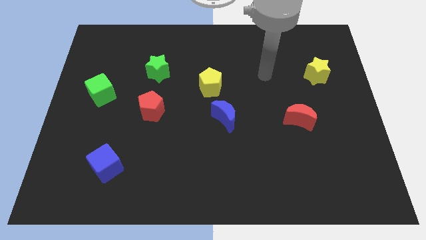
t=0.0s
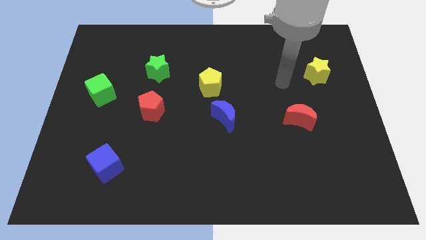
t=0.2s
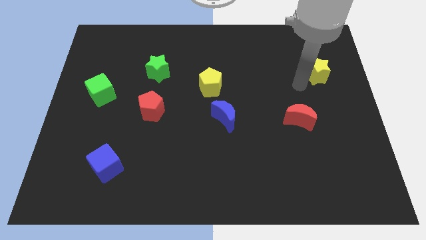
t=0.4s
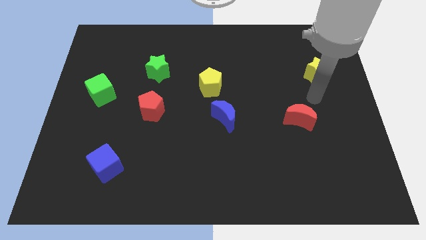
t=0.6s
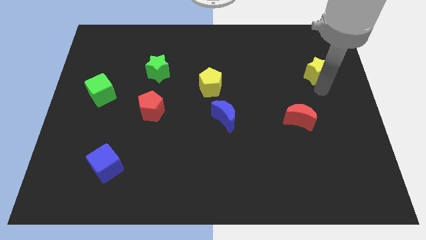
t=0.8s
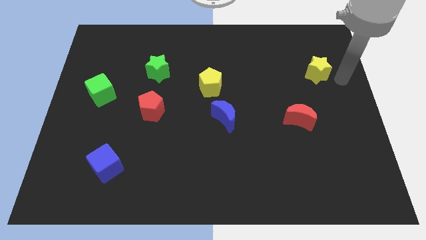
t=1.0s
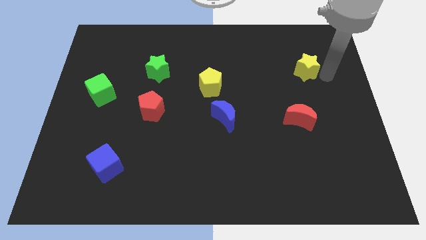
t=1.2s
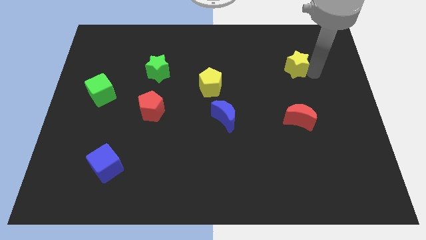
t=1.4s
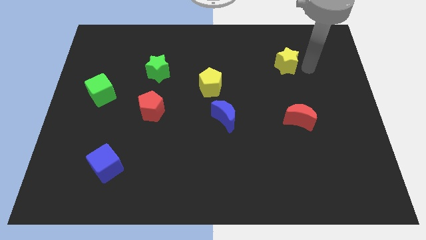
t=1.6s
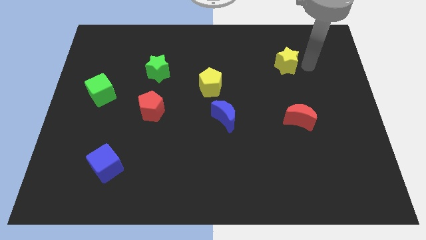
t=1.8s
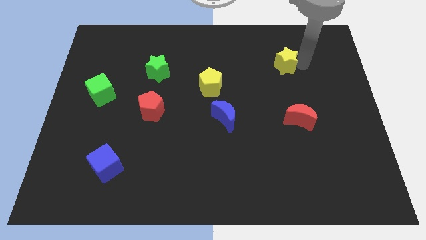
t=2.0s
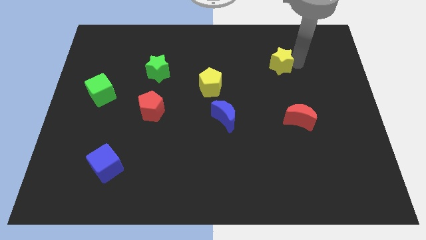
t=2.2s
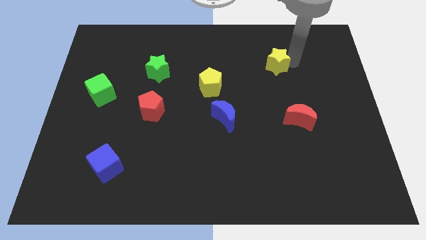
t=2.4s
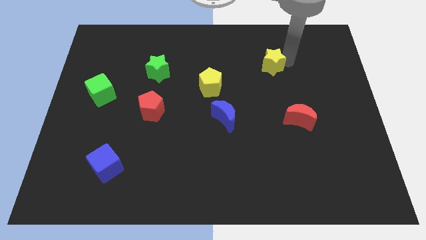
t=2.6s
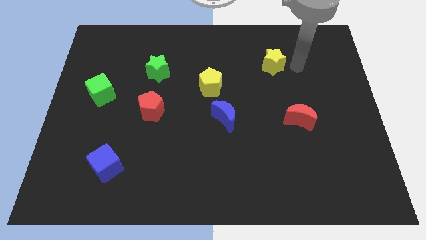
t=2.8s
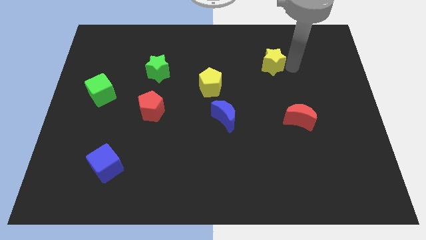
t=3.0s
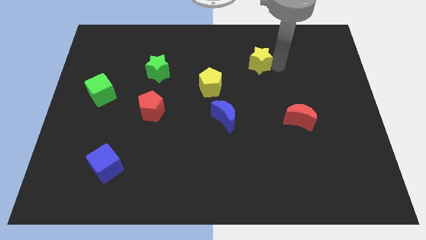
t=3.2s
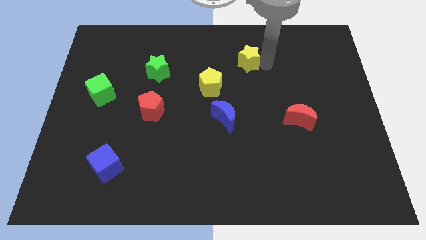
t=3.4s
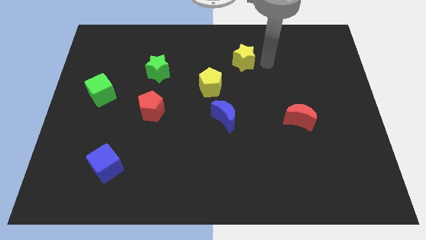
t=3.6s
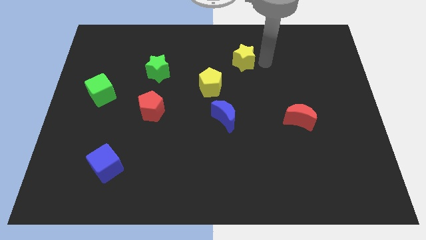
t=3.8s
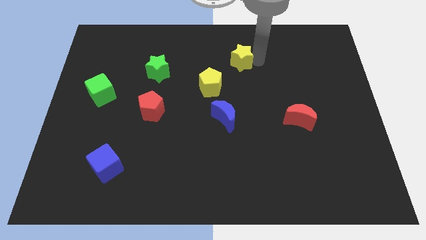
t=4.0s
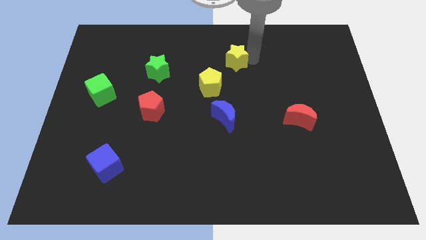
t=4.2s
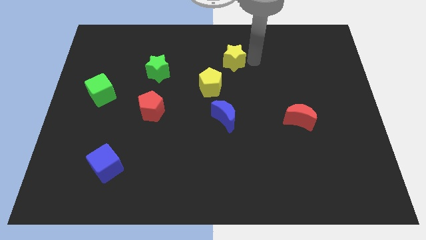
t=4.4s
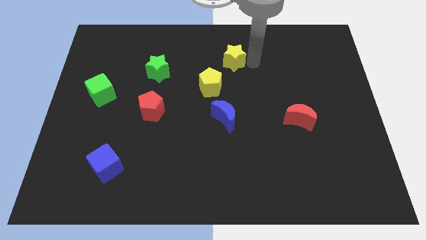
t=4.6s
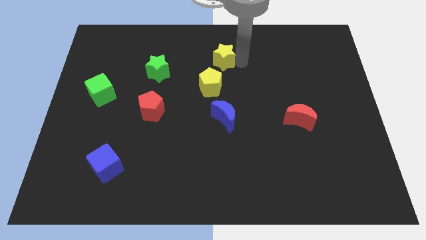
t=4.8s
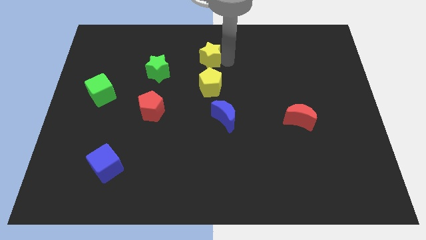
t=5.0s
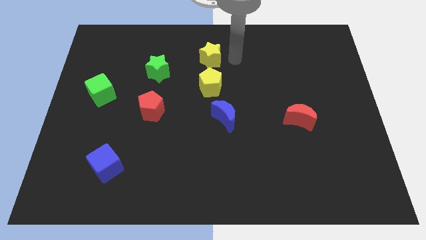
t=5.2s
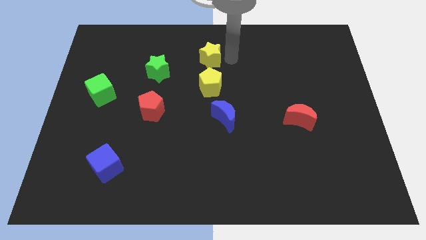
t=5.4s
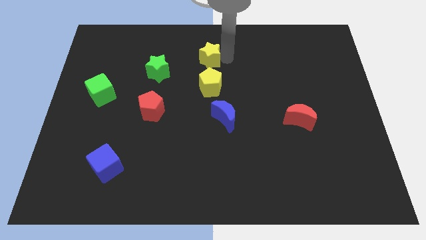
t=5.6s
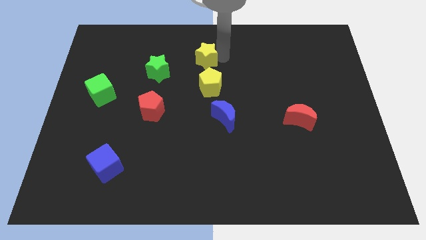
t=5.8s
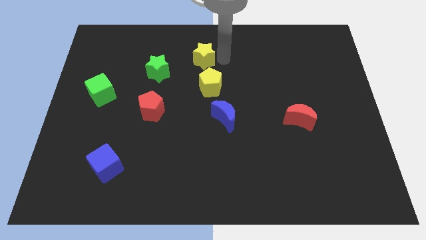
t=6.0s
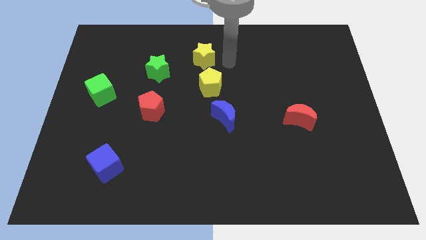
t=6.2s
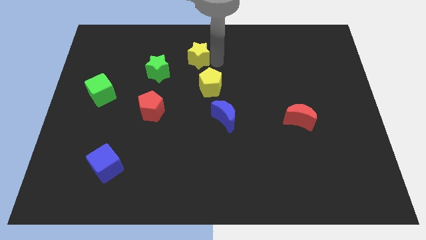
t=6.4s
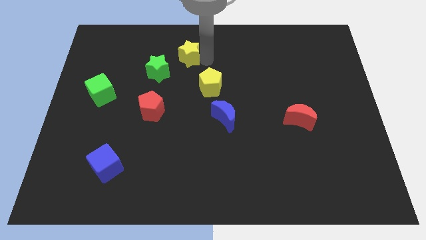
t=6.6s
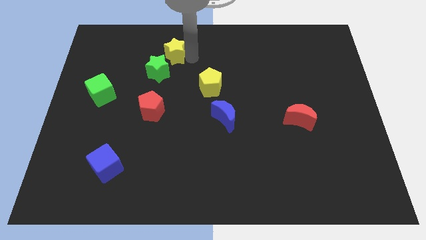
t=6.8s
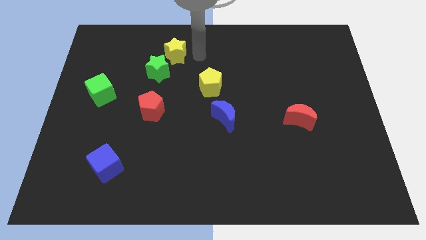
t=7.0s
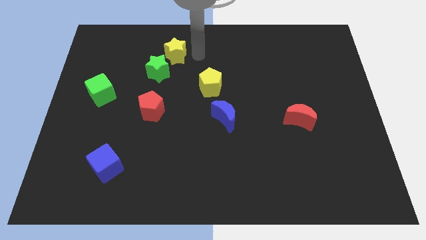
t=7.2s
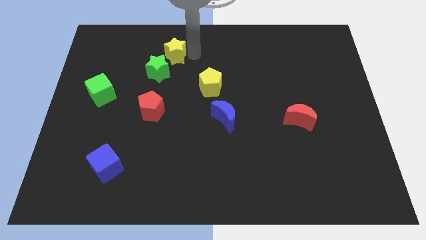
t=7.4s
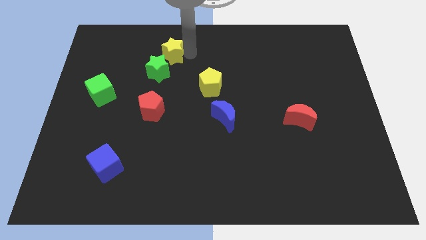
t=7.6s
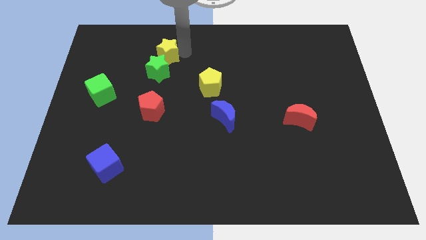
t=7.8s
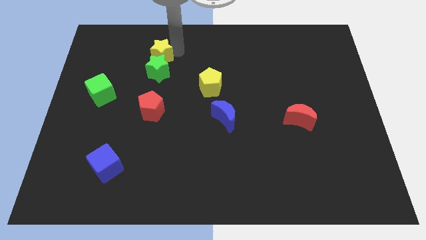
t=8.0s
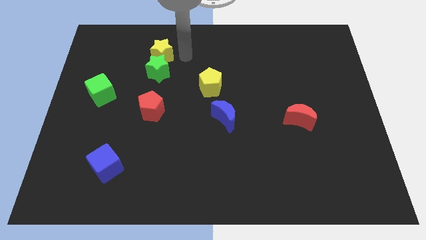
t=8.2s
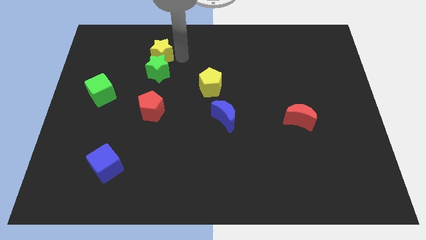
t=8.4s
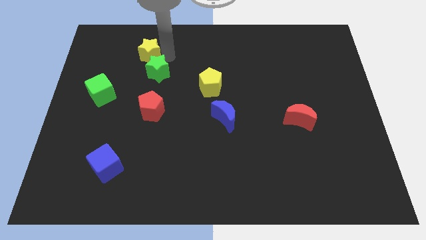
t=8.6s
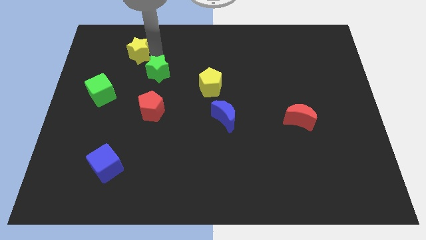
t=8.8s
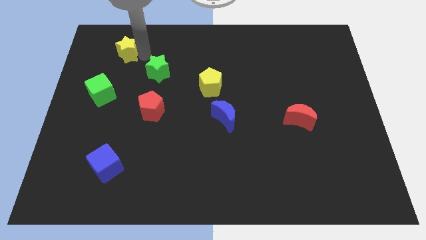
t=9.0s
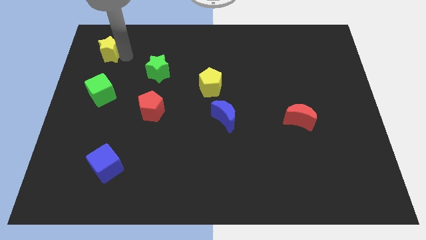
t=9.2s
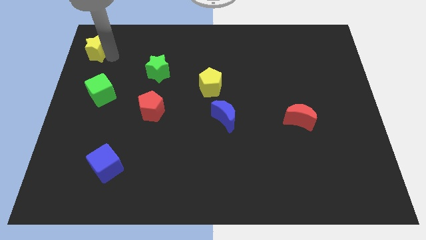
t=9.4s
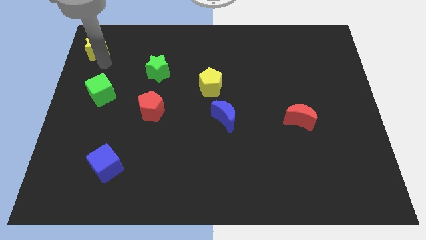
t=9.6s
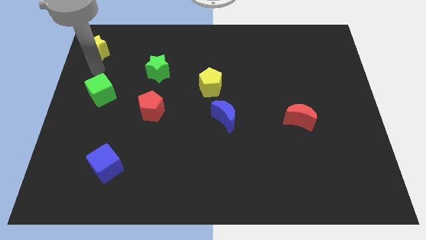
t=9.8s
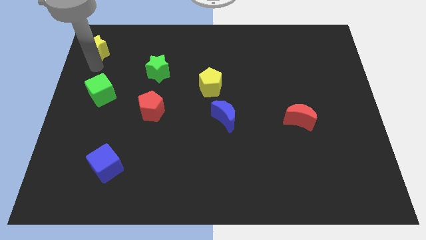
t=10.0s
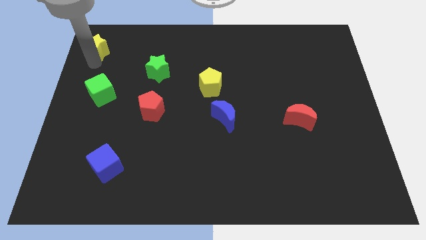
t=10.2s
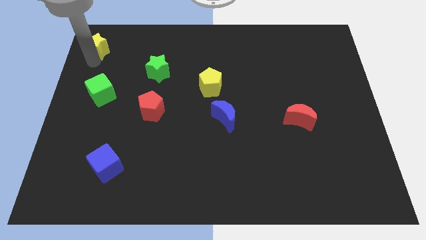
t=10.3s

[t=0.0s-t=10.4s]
push the yellow star to the upper left corner

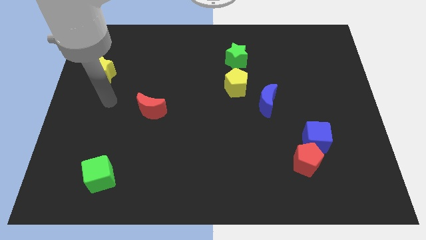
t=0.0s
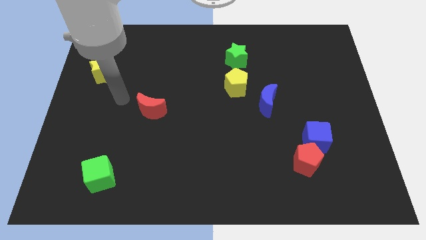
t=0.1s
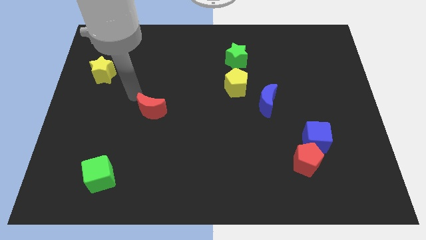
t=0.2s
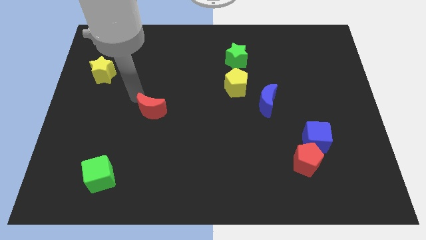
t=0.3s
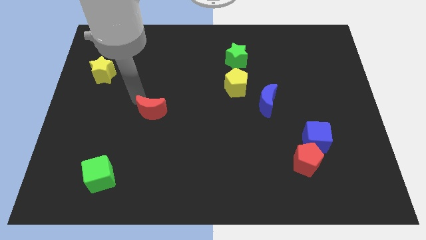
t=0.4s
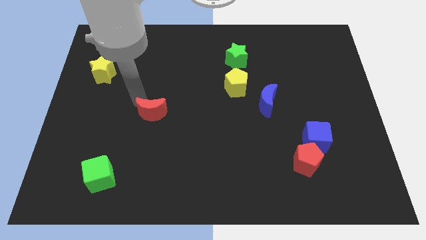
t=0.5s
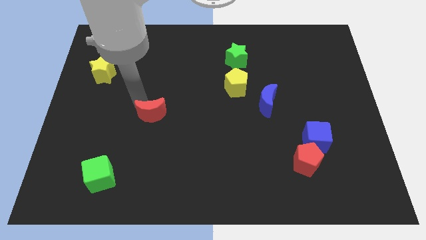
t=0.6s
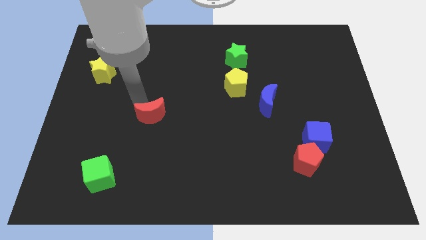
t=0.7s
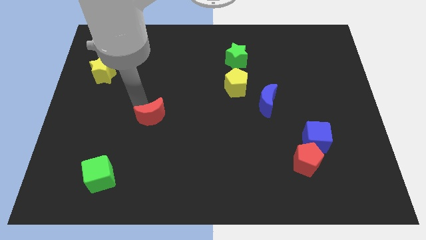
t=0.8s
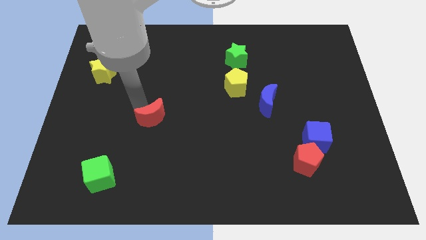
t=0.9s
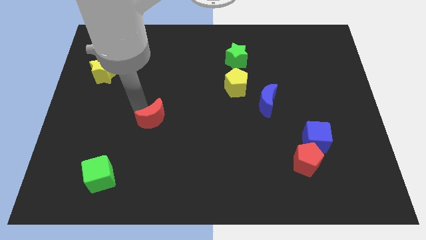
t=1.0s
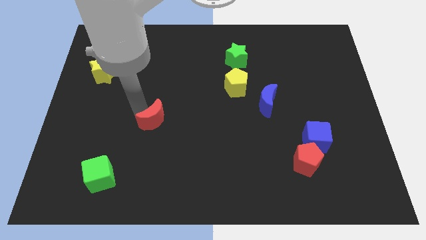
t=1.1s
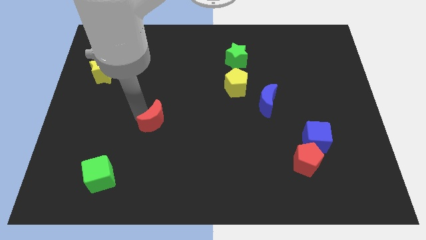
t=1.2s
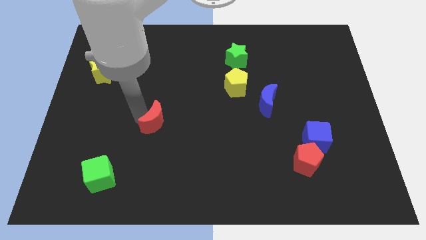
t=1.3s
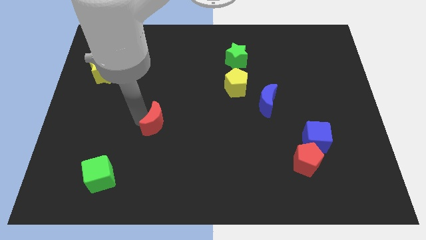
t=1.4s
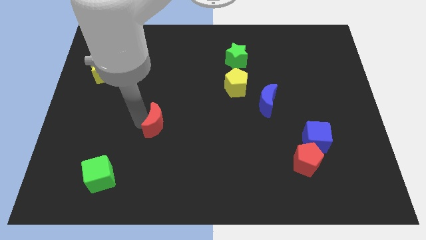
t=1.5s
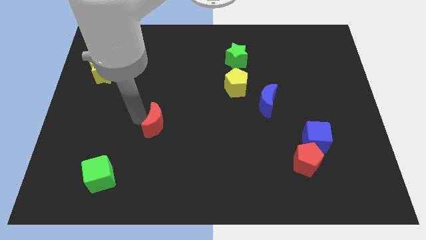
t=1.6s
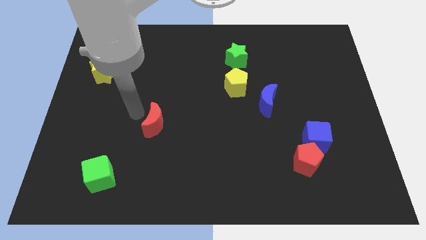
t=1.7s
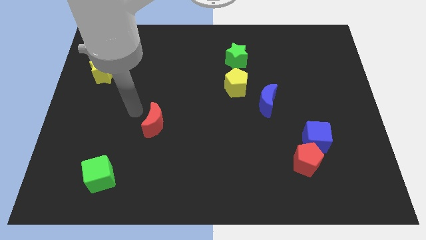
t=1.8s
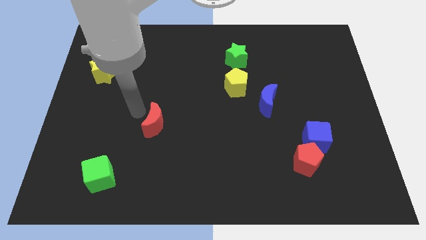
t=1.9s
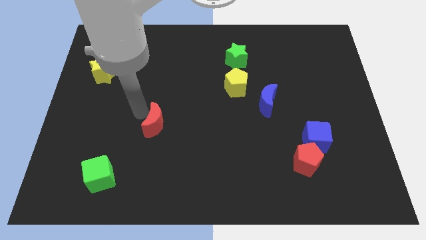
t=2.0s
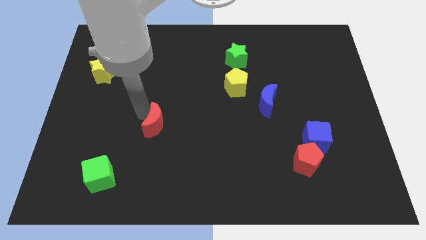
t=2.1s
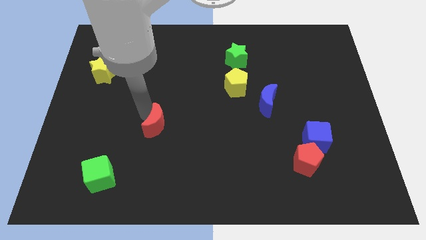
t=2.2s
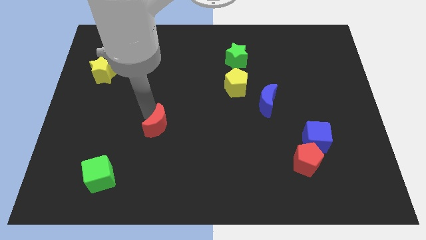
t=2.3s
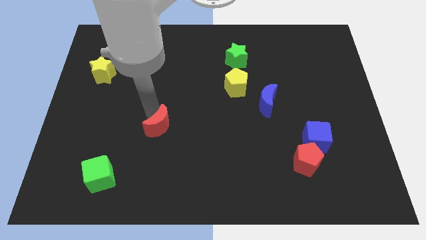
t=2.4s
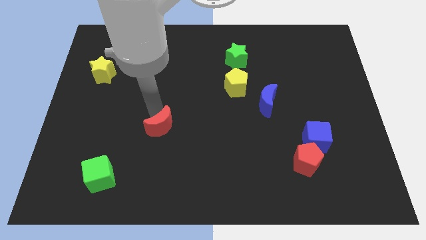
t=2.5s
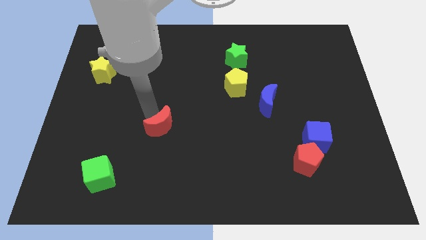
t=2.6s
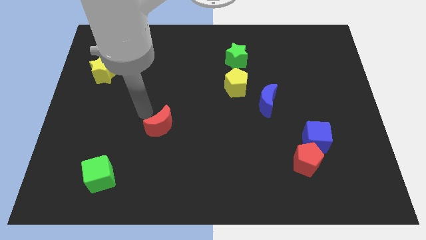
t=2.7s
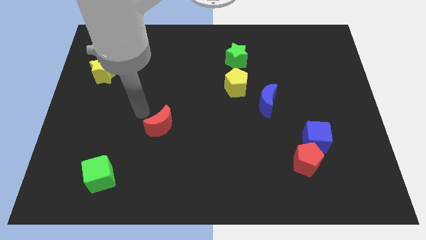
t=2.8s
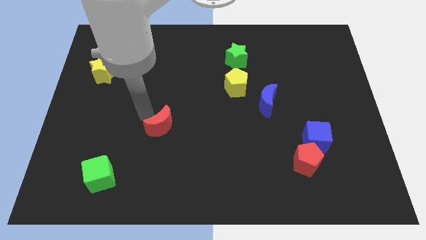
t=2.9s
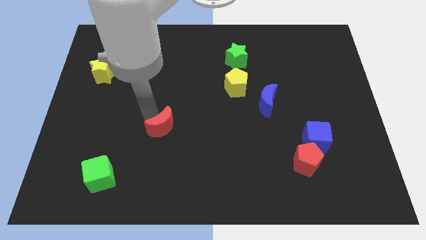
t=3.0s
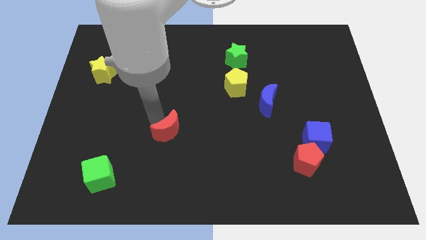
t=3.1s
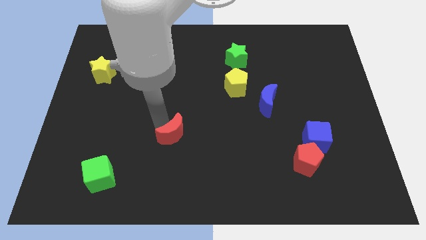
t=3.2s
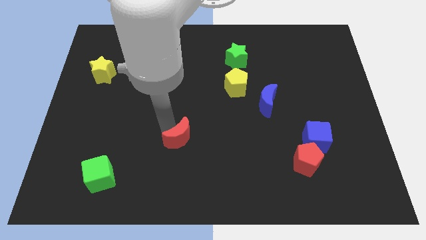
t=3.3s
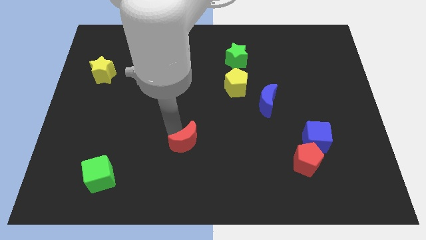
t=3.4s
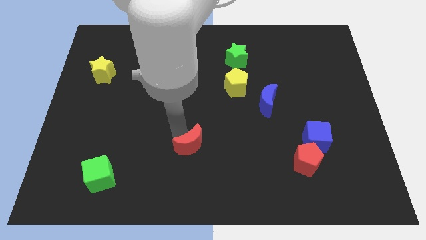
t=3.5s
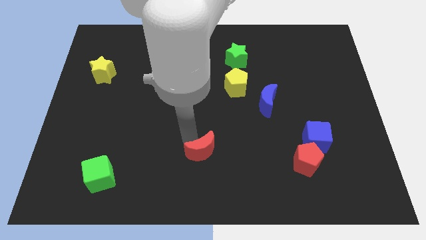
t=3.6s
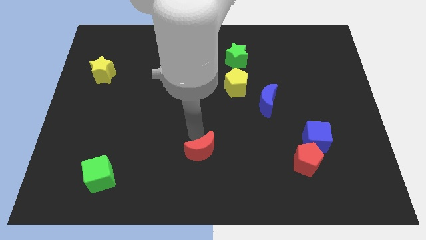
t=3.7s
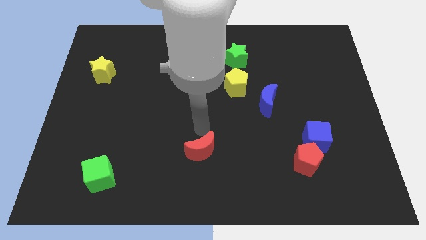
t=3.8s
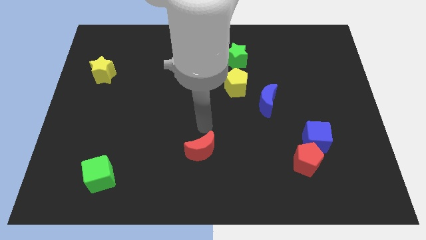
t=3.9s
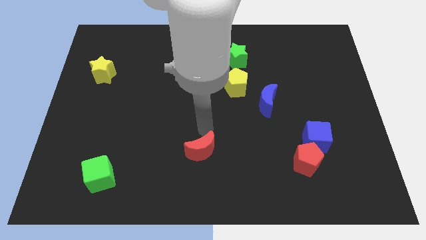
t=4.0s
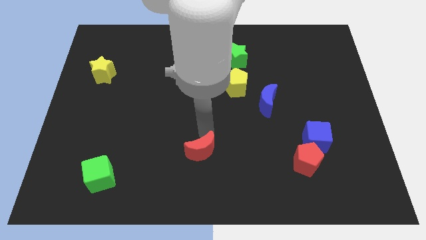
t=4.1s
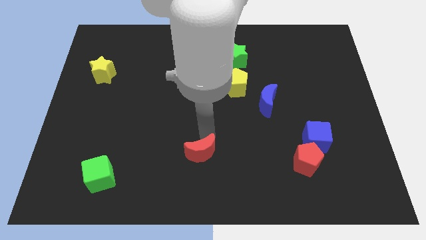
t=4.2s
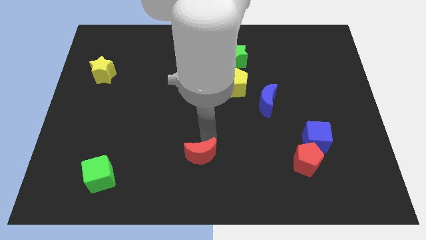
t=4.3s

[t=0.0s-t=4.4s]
slide the red moon to the bottom side
